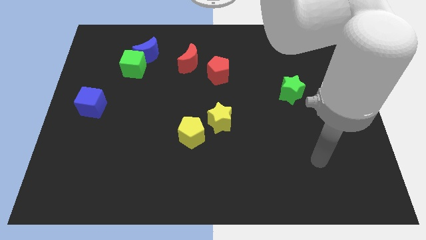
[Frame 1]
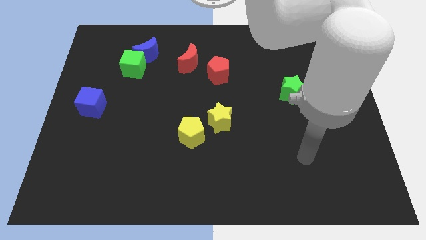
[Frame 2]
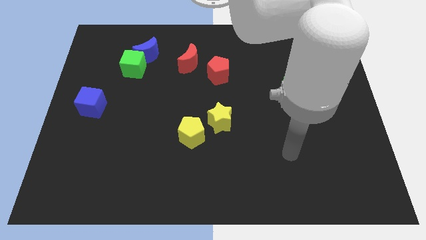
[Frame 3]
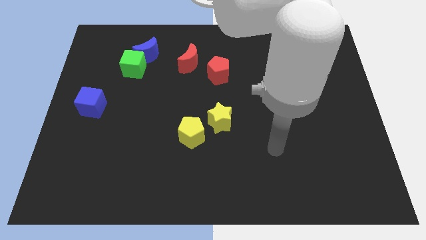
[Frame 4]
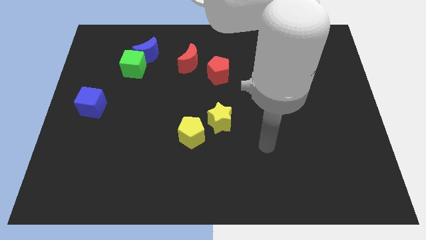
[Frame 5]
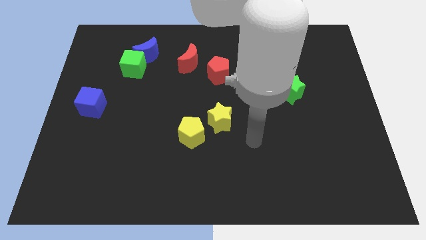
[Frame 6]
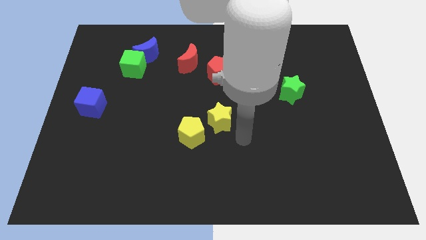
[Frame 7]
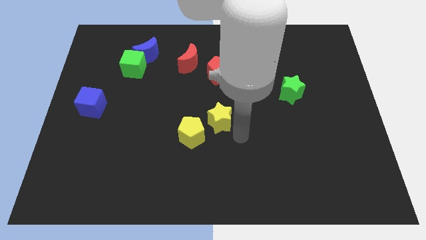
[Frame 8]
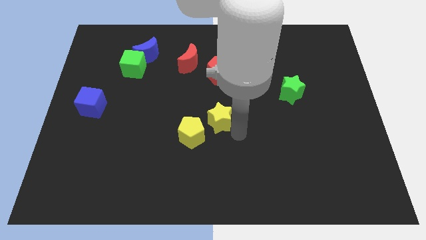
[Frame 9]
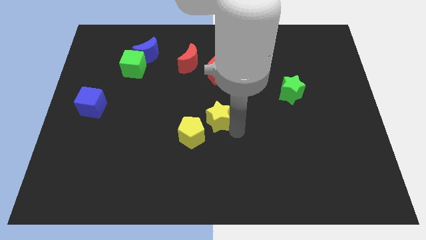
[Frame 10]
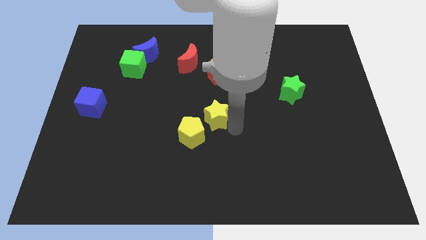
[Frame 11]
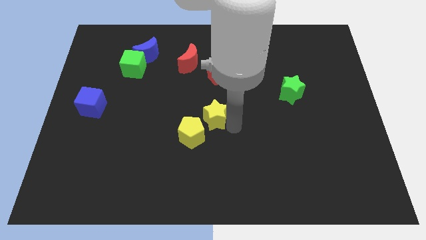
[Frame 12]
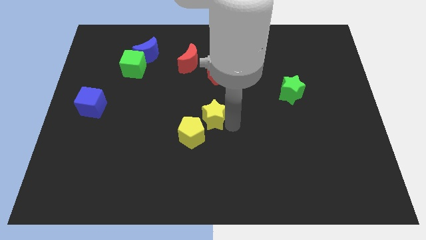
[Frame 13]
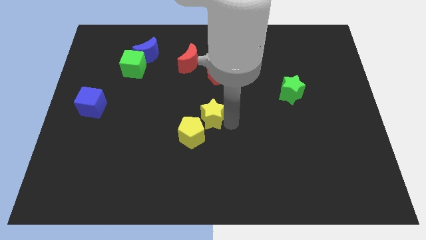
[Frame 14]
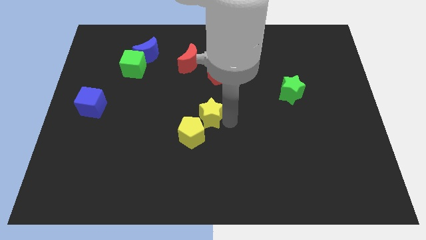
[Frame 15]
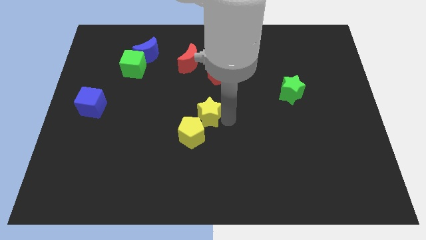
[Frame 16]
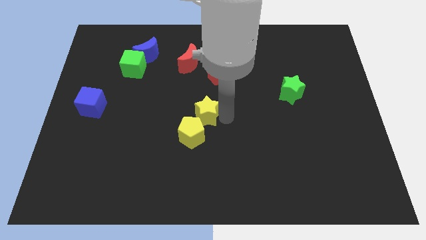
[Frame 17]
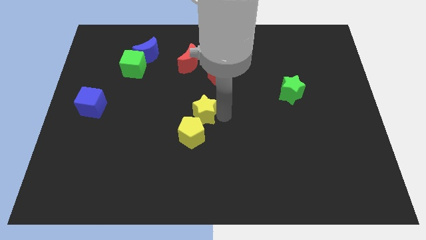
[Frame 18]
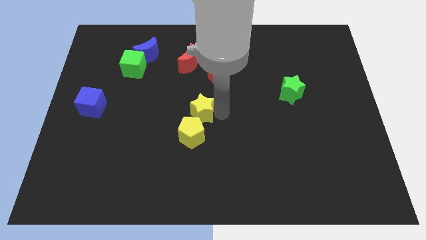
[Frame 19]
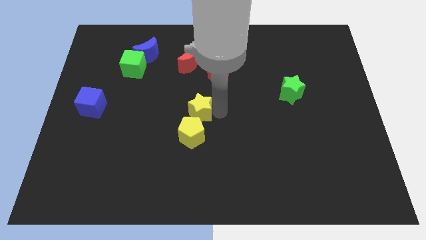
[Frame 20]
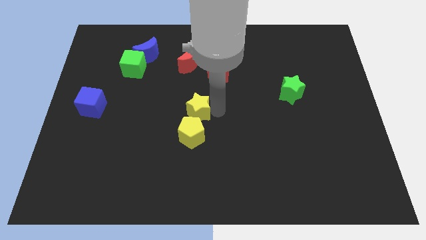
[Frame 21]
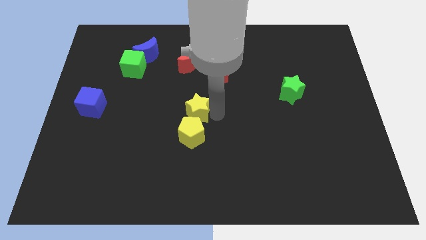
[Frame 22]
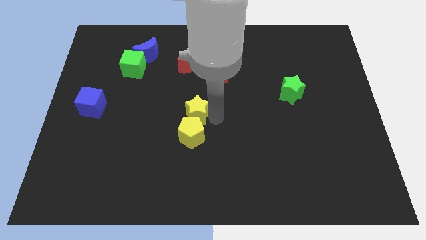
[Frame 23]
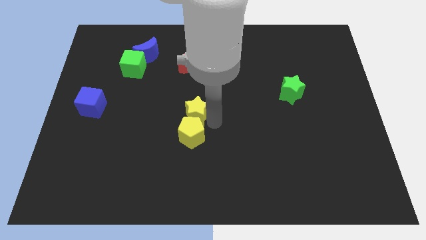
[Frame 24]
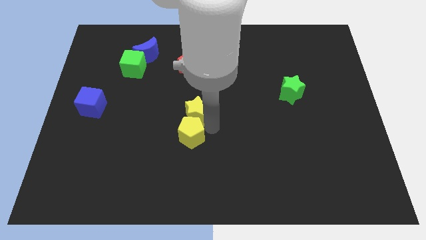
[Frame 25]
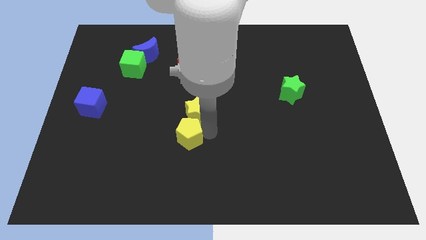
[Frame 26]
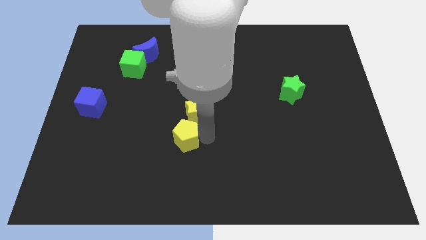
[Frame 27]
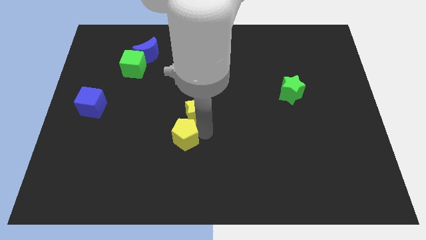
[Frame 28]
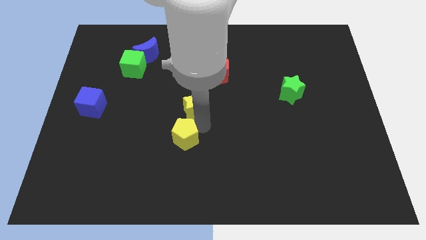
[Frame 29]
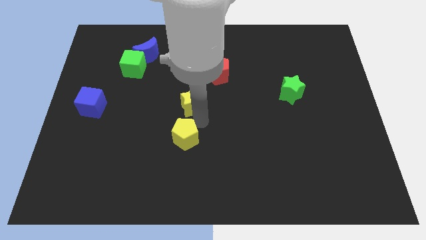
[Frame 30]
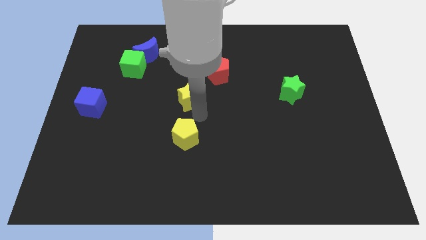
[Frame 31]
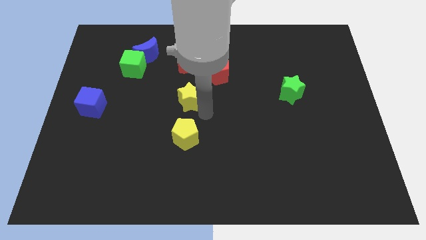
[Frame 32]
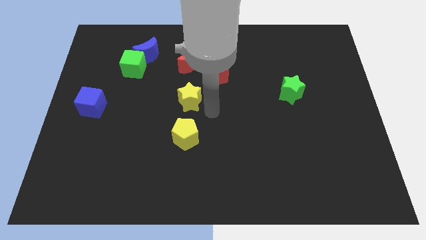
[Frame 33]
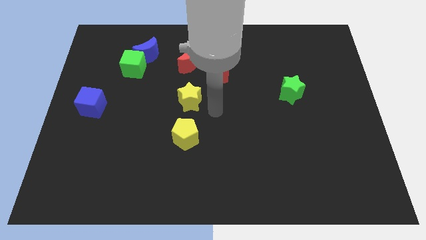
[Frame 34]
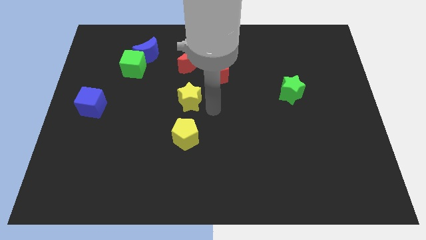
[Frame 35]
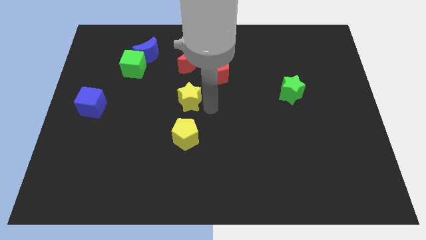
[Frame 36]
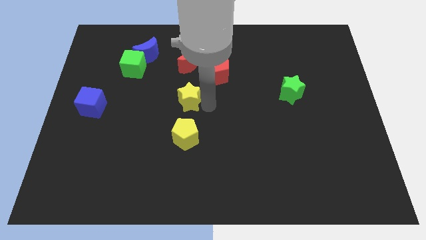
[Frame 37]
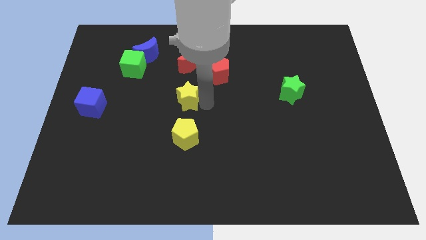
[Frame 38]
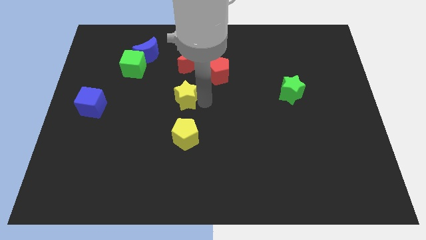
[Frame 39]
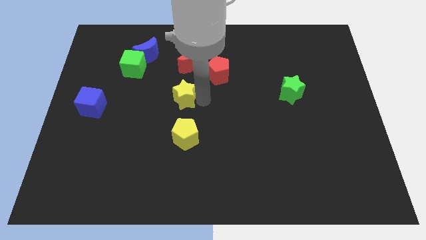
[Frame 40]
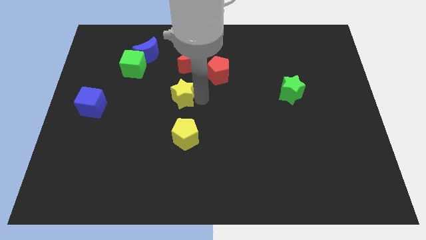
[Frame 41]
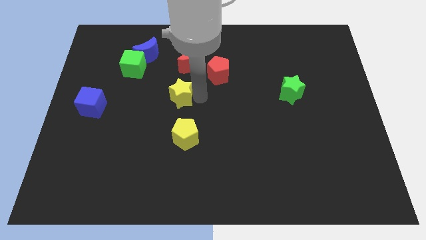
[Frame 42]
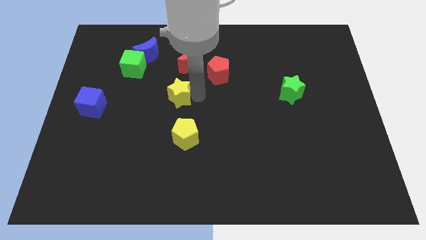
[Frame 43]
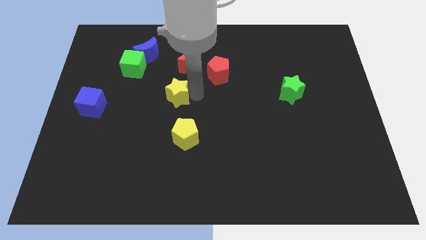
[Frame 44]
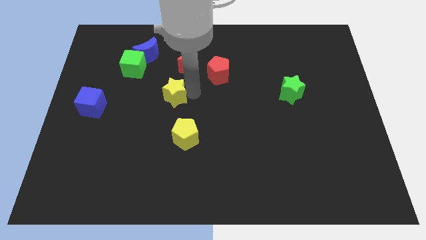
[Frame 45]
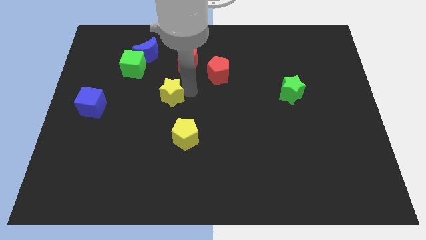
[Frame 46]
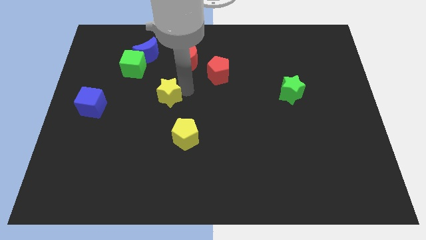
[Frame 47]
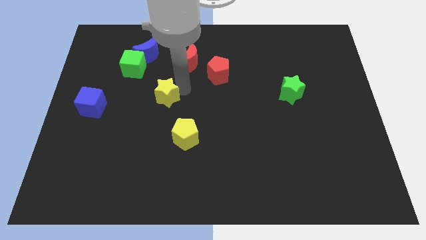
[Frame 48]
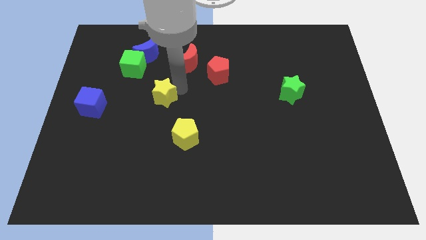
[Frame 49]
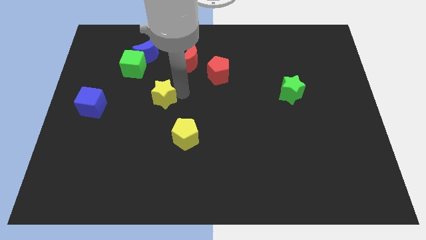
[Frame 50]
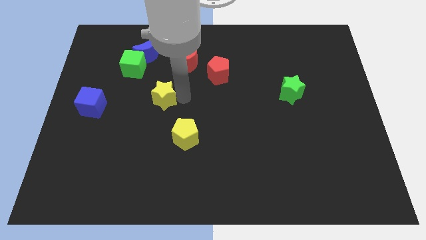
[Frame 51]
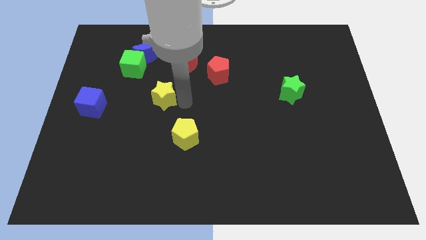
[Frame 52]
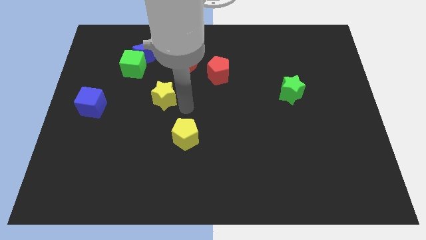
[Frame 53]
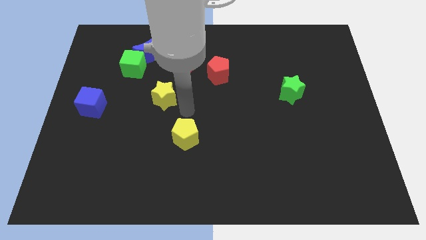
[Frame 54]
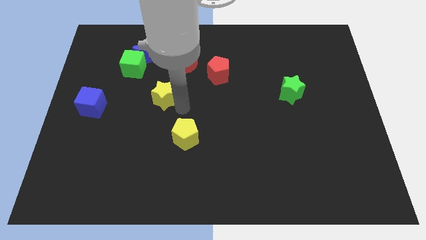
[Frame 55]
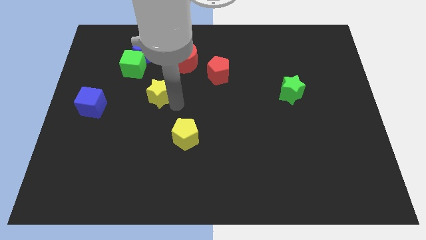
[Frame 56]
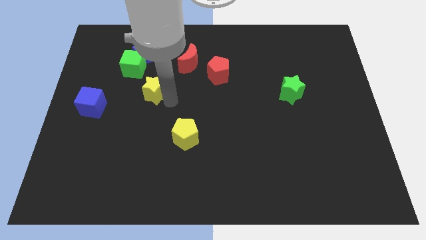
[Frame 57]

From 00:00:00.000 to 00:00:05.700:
move the yellow star to the bottom of the blue moon

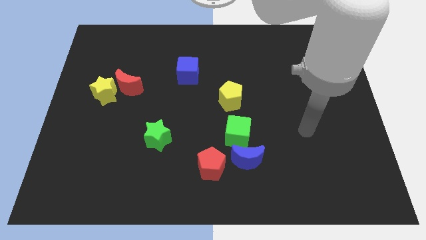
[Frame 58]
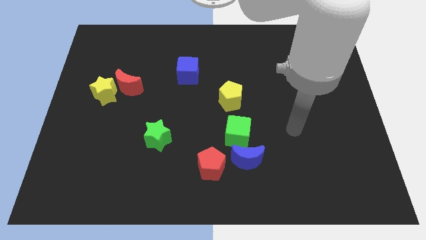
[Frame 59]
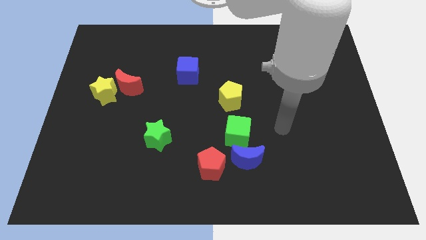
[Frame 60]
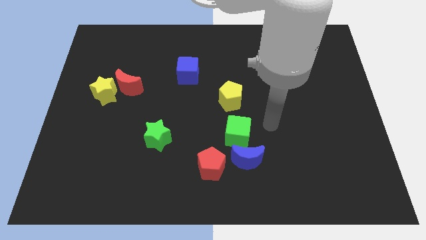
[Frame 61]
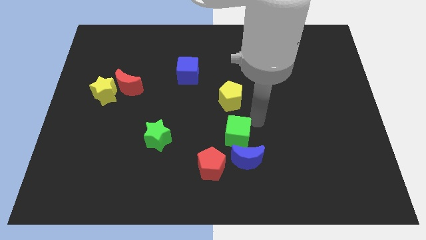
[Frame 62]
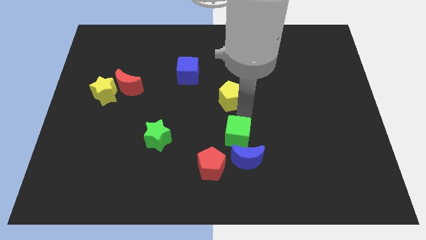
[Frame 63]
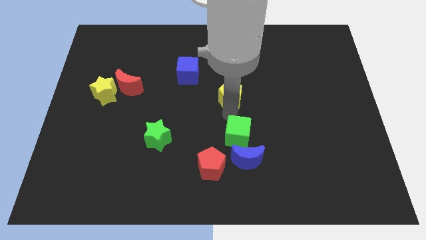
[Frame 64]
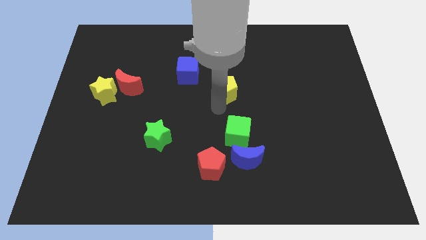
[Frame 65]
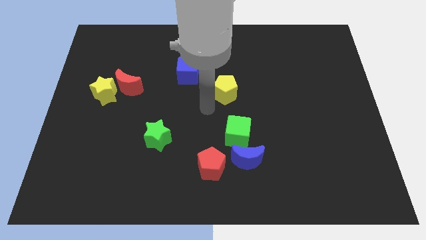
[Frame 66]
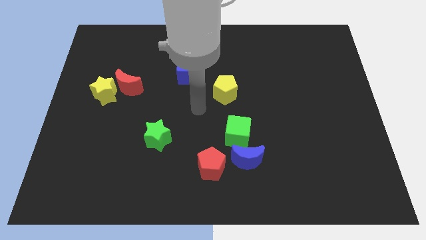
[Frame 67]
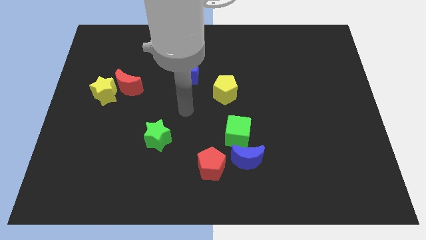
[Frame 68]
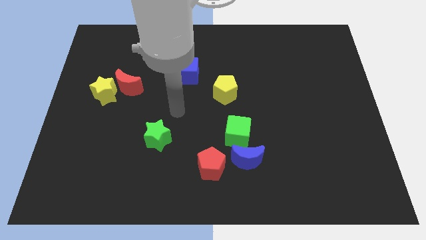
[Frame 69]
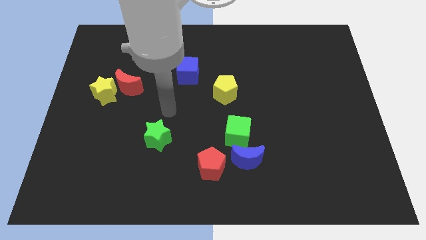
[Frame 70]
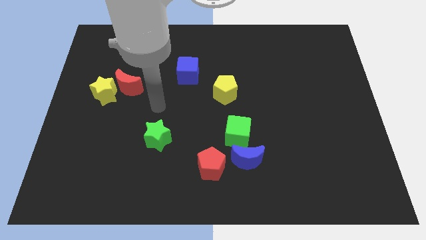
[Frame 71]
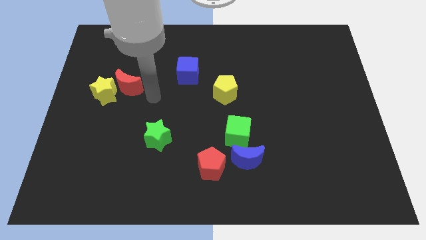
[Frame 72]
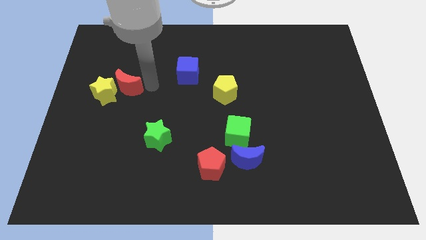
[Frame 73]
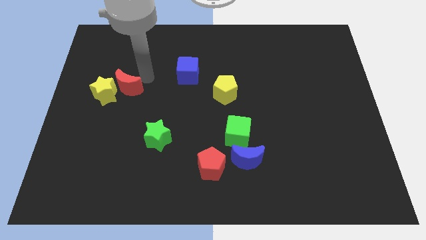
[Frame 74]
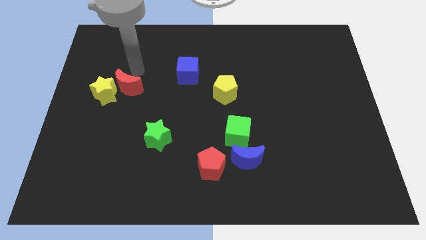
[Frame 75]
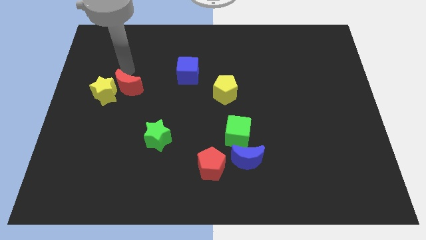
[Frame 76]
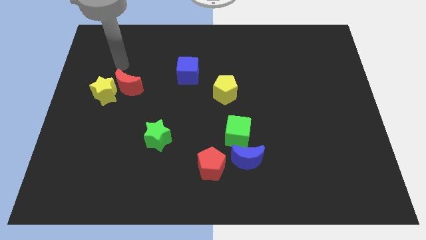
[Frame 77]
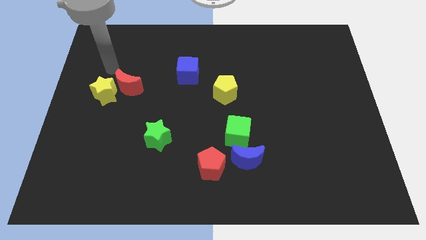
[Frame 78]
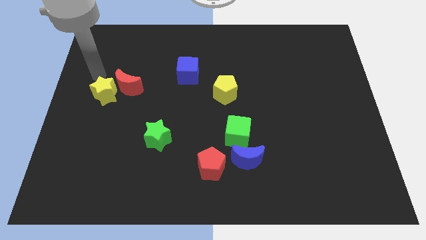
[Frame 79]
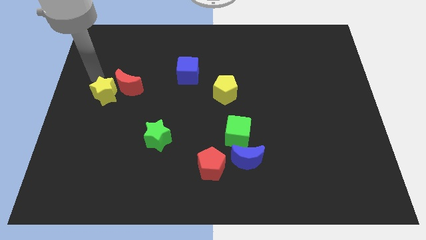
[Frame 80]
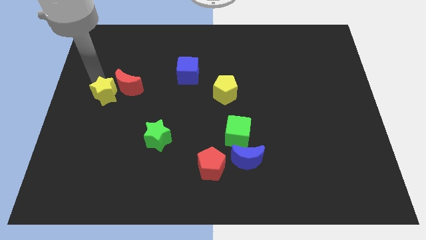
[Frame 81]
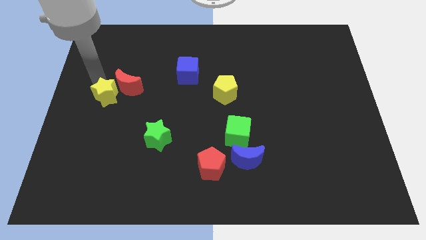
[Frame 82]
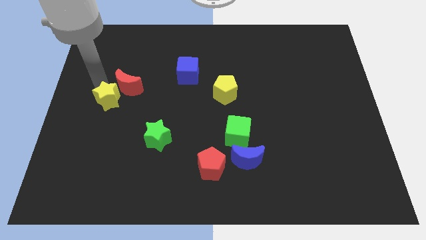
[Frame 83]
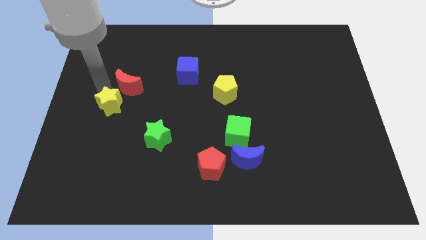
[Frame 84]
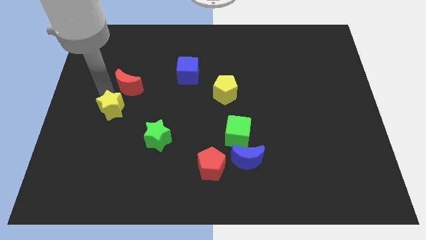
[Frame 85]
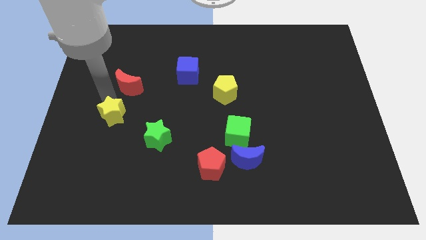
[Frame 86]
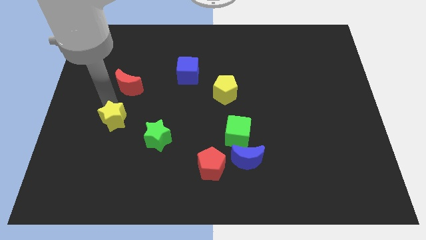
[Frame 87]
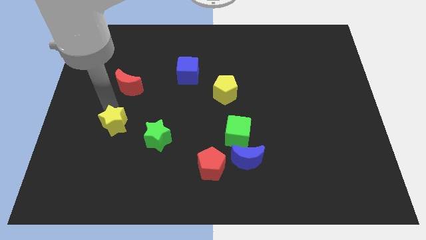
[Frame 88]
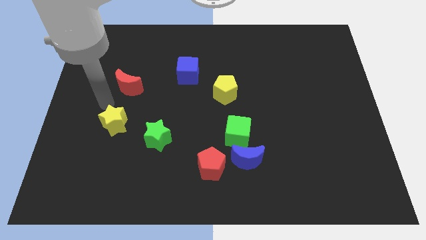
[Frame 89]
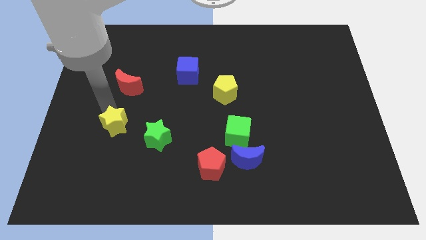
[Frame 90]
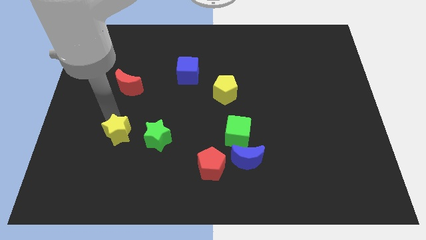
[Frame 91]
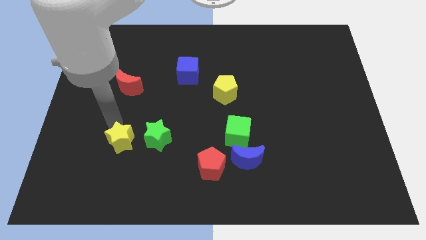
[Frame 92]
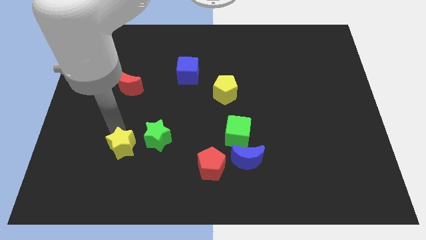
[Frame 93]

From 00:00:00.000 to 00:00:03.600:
push the yellow star to the bottom left of the green star
